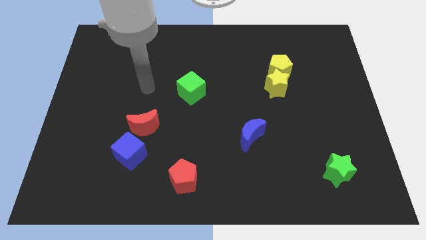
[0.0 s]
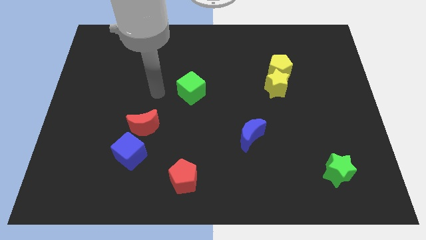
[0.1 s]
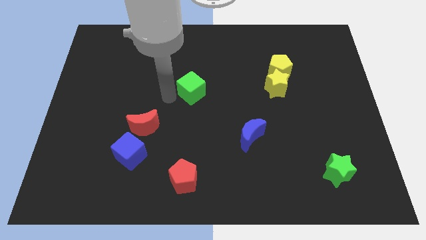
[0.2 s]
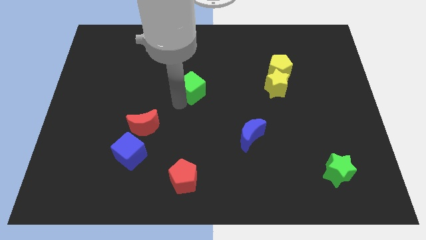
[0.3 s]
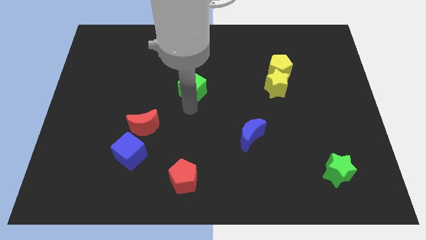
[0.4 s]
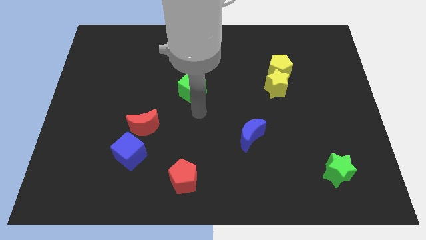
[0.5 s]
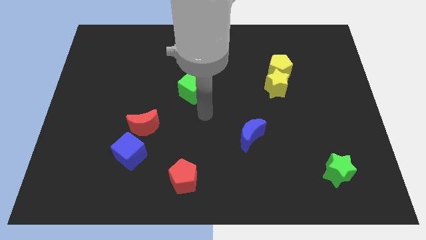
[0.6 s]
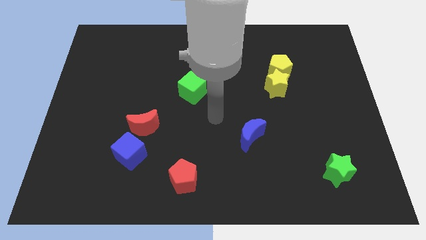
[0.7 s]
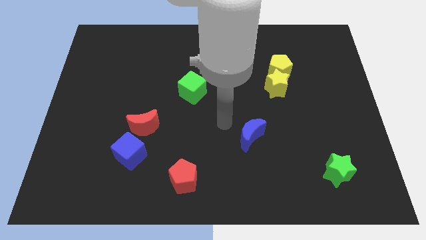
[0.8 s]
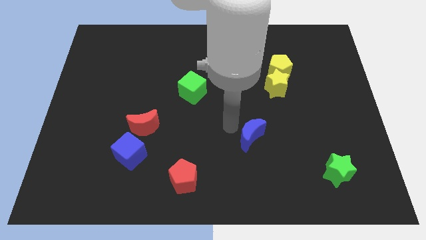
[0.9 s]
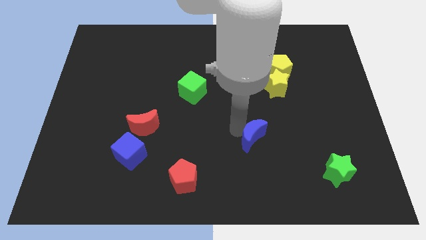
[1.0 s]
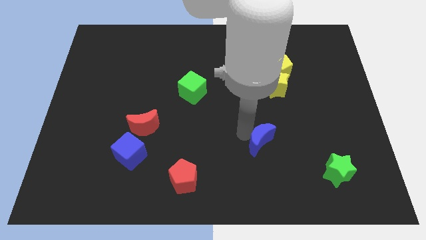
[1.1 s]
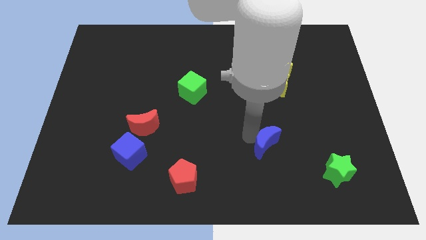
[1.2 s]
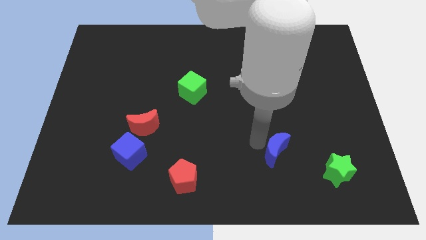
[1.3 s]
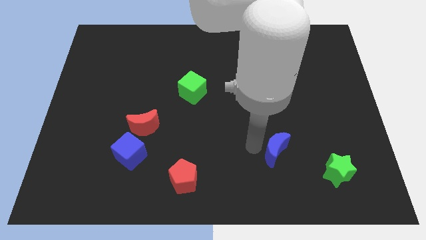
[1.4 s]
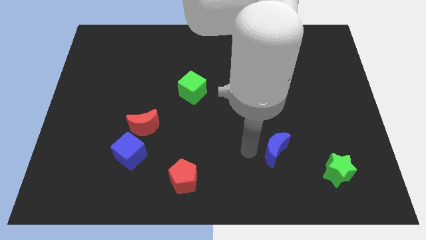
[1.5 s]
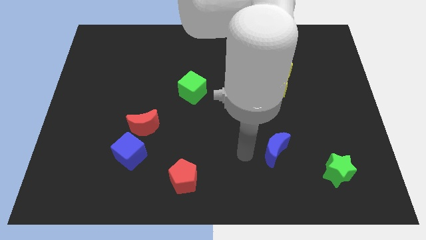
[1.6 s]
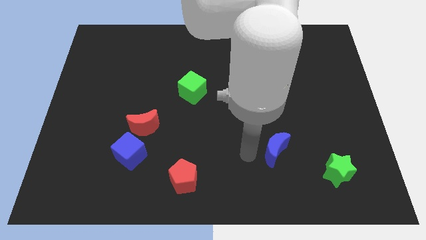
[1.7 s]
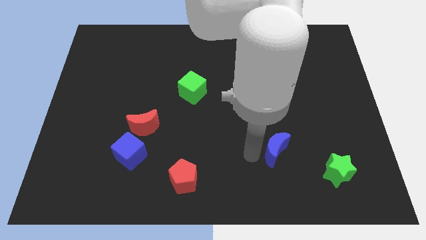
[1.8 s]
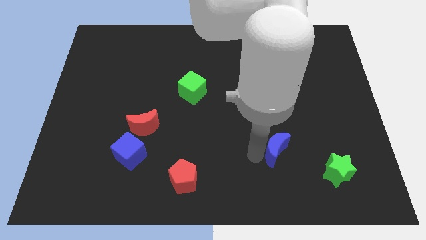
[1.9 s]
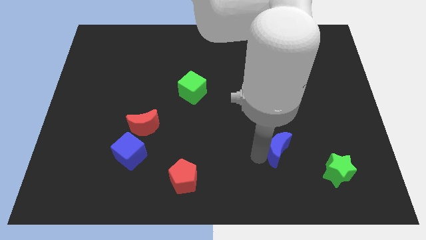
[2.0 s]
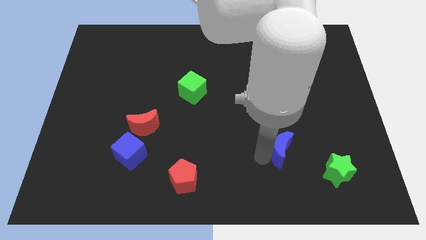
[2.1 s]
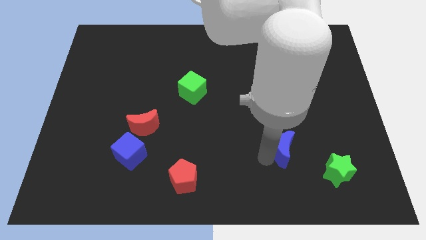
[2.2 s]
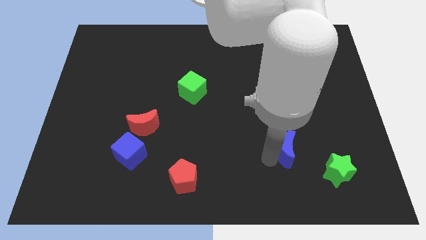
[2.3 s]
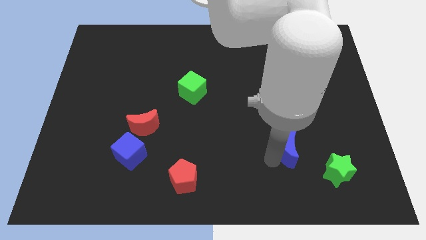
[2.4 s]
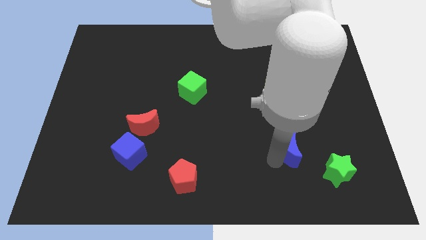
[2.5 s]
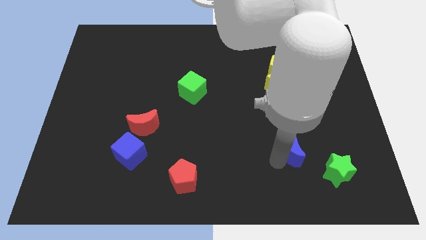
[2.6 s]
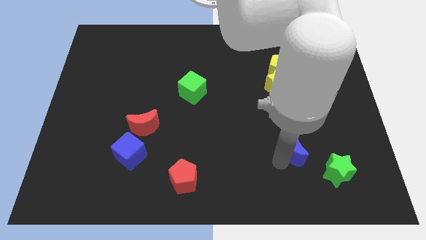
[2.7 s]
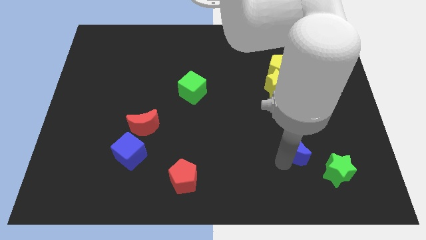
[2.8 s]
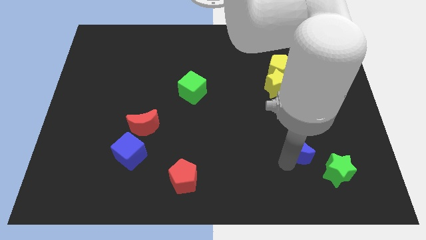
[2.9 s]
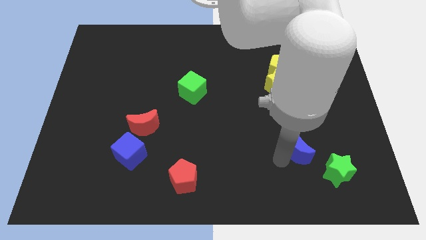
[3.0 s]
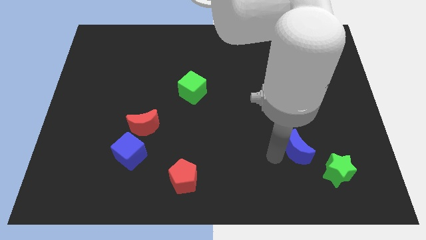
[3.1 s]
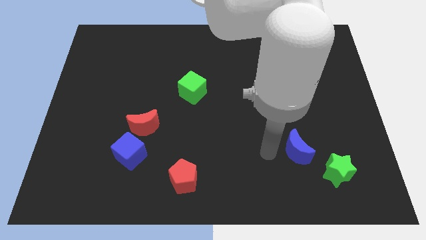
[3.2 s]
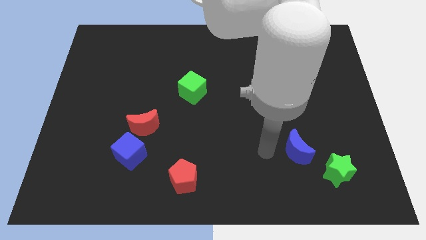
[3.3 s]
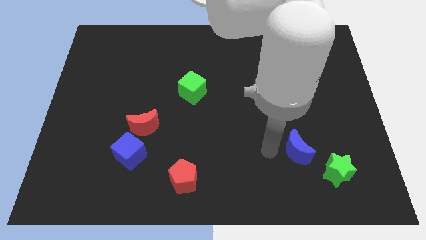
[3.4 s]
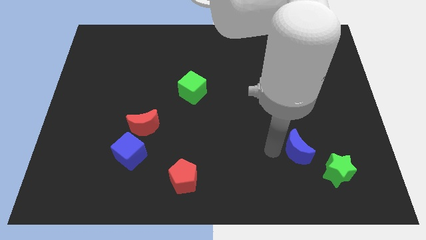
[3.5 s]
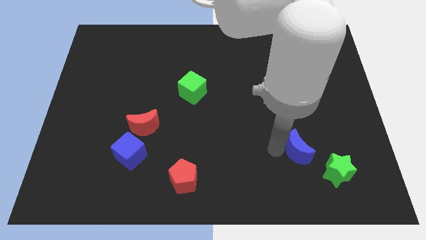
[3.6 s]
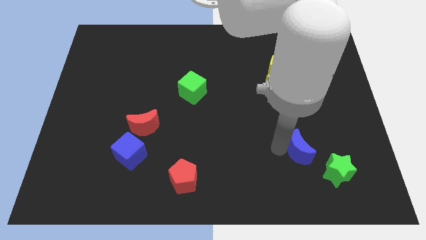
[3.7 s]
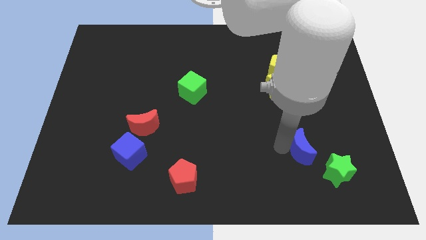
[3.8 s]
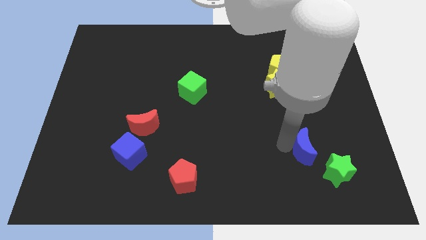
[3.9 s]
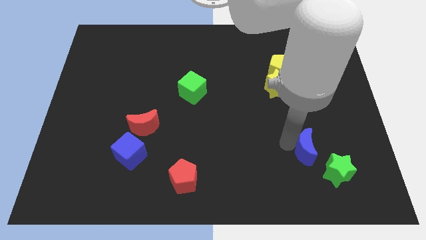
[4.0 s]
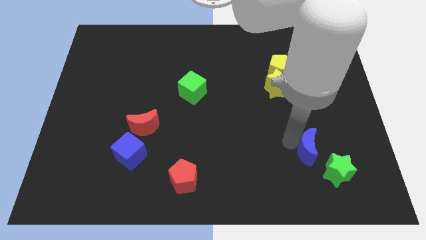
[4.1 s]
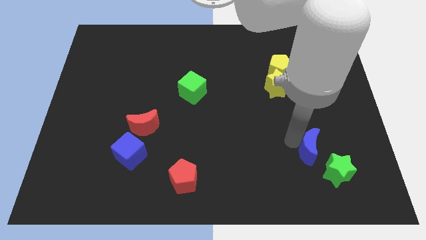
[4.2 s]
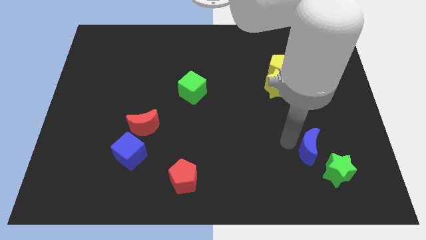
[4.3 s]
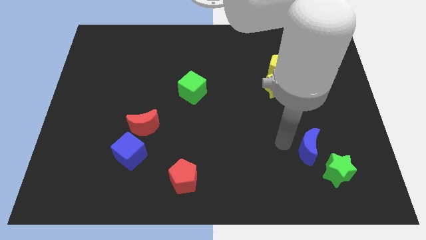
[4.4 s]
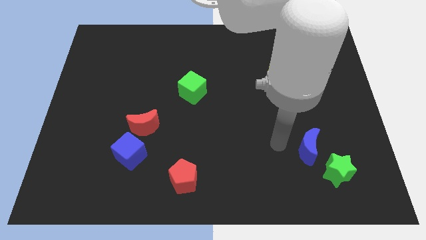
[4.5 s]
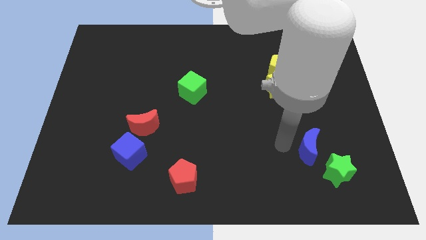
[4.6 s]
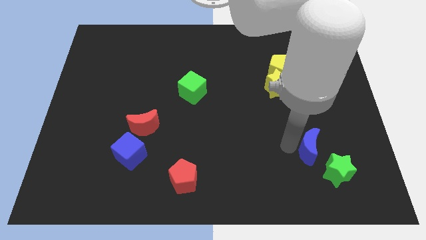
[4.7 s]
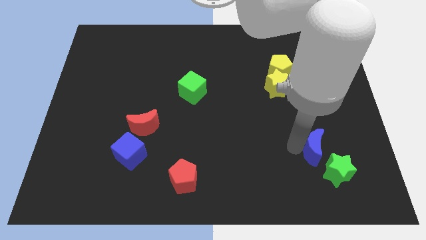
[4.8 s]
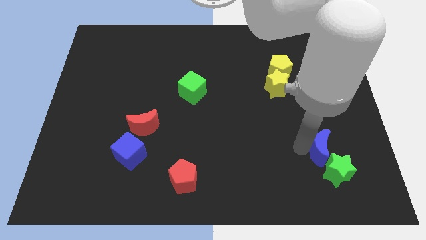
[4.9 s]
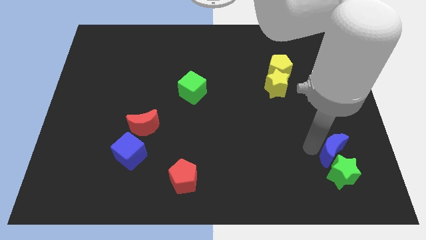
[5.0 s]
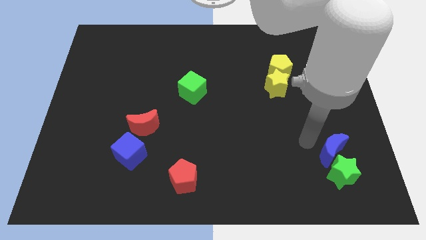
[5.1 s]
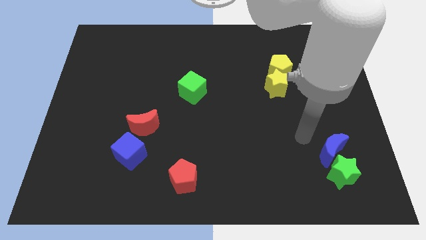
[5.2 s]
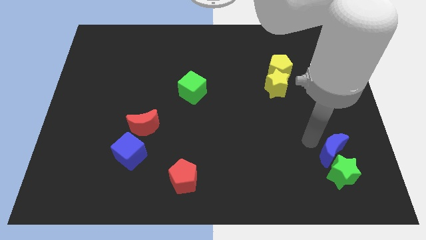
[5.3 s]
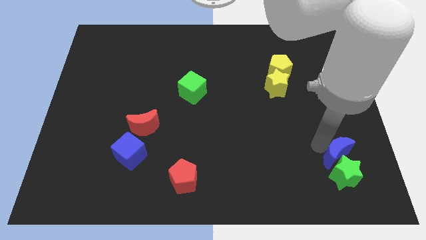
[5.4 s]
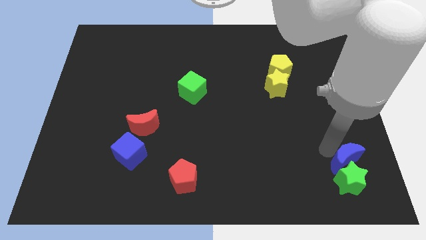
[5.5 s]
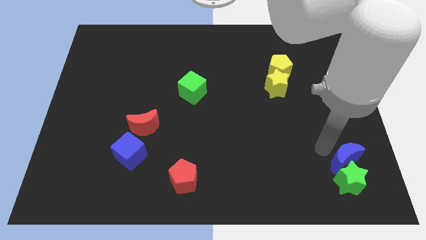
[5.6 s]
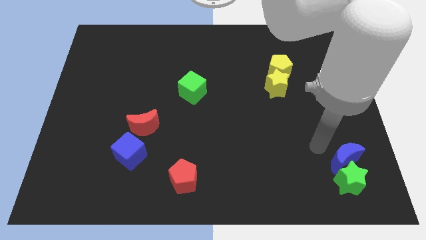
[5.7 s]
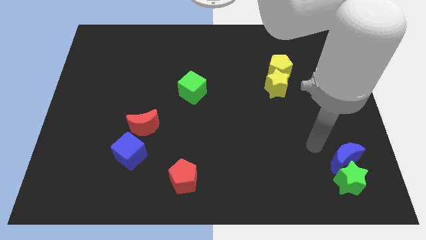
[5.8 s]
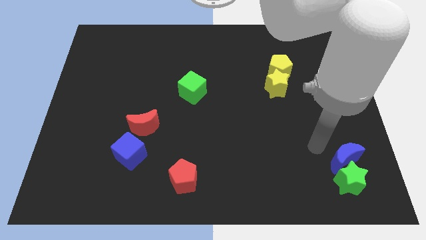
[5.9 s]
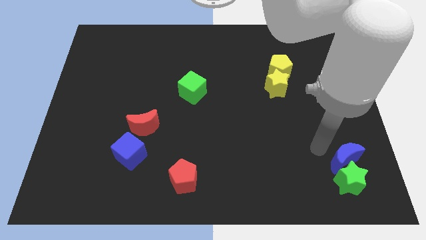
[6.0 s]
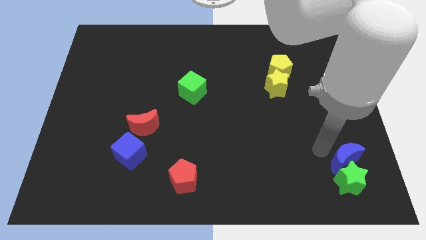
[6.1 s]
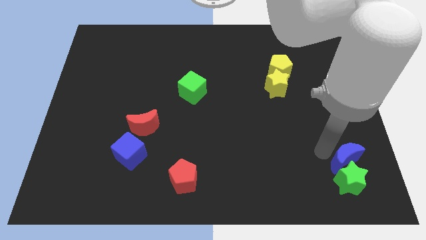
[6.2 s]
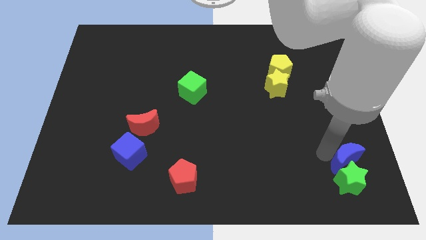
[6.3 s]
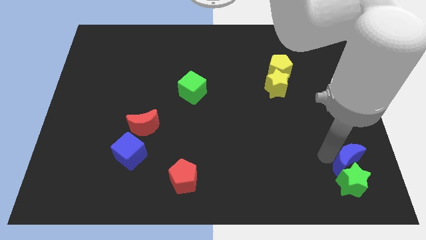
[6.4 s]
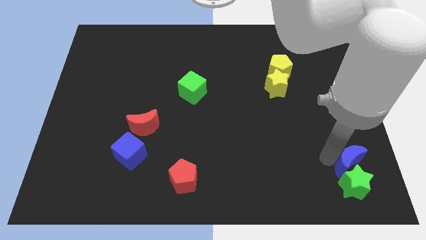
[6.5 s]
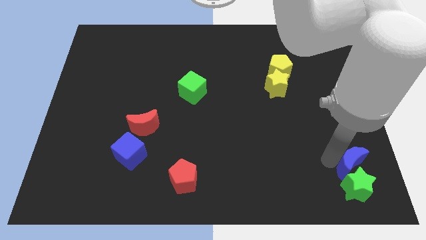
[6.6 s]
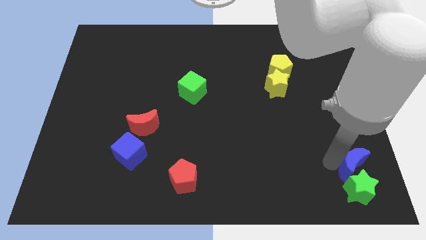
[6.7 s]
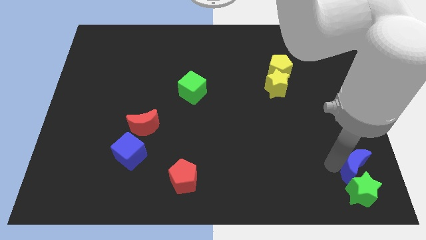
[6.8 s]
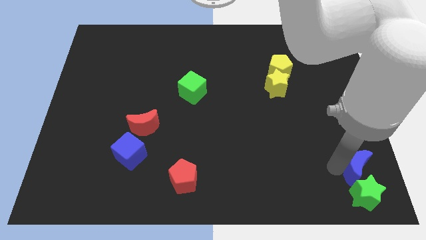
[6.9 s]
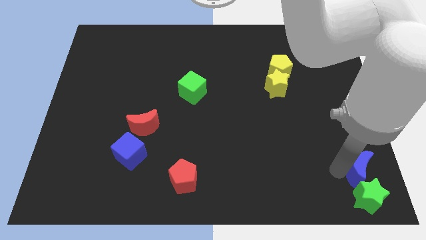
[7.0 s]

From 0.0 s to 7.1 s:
push the blue moon to the bottom right
